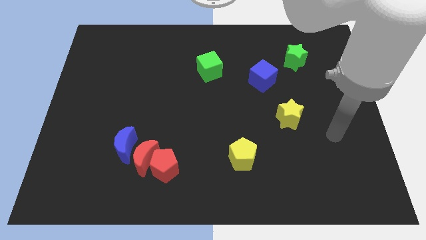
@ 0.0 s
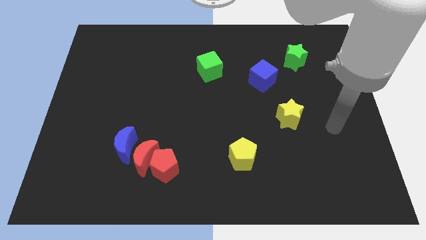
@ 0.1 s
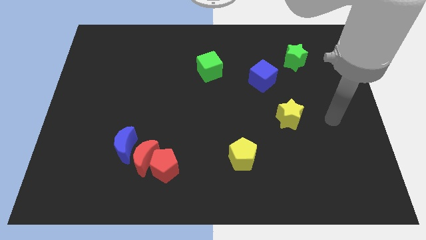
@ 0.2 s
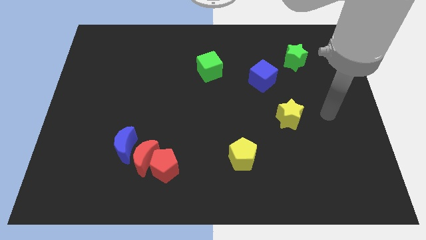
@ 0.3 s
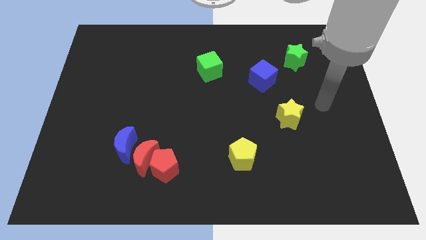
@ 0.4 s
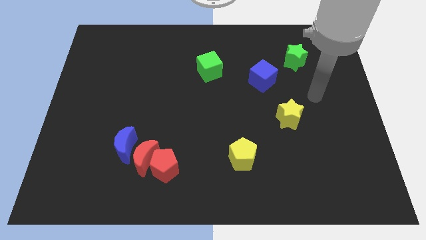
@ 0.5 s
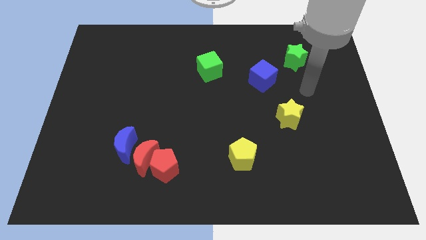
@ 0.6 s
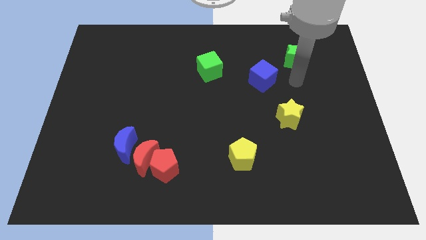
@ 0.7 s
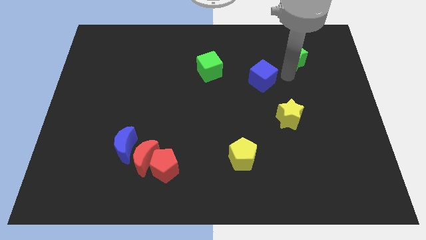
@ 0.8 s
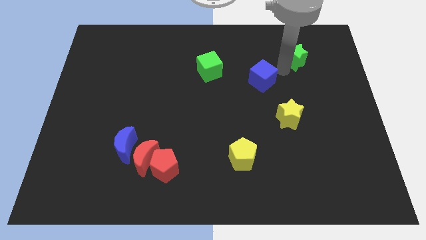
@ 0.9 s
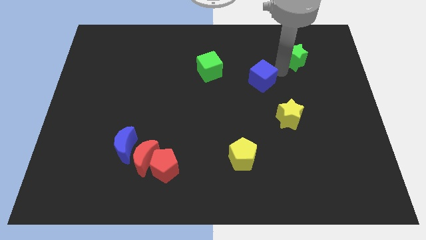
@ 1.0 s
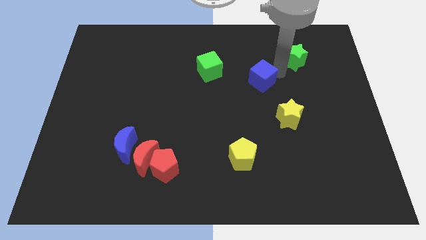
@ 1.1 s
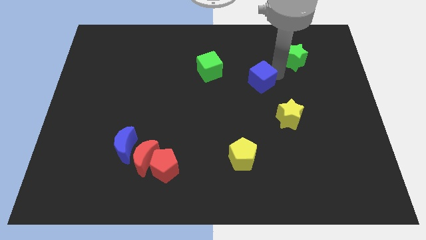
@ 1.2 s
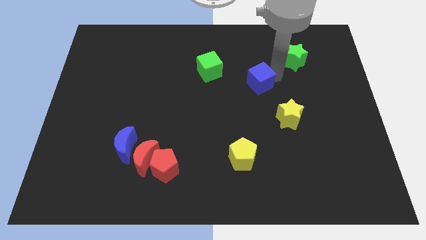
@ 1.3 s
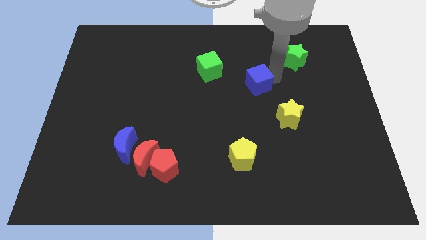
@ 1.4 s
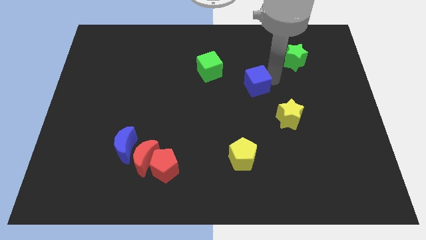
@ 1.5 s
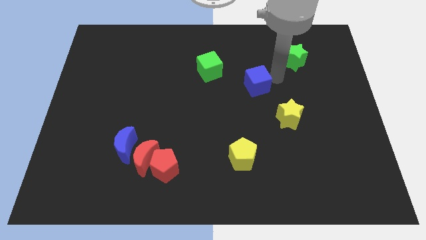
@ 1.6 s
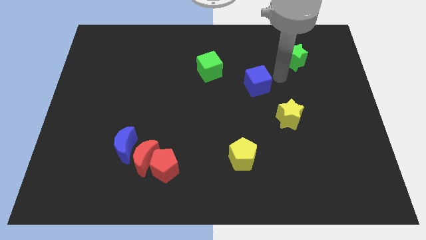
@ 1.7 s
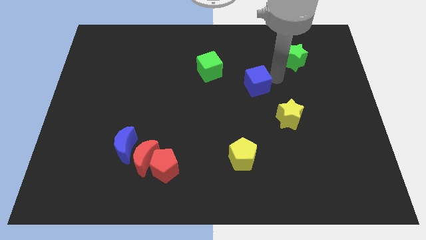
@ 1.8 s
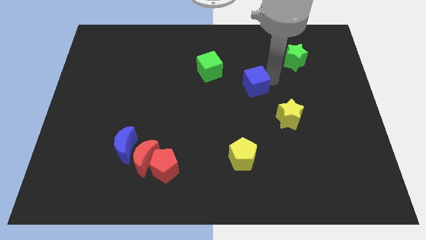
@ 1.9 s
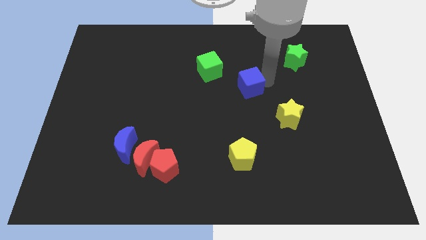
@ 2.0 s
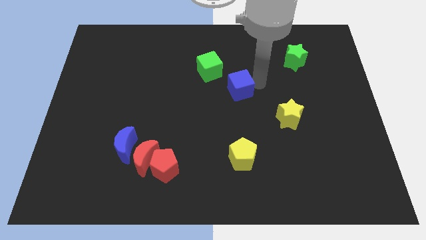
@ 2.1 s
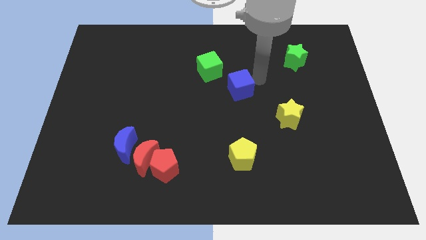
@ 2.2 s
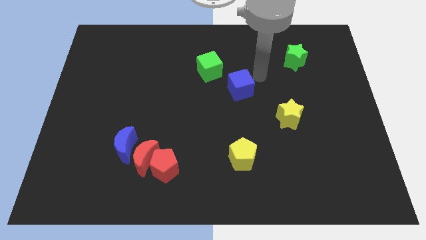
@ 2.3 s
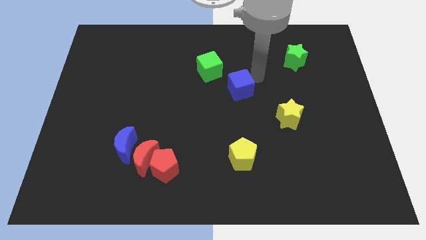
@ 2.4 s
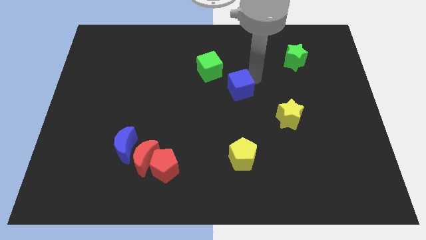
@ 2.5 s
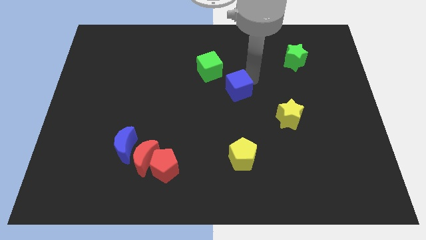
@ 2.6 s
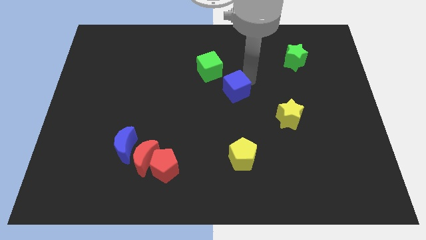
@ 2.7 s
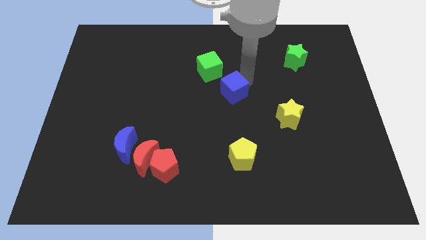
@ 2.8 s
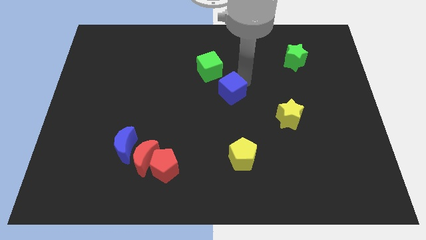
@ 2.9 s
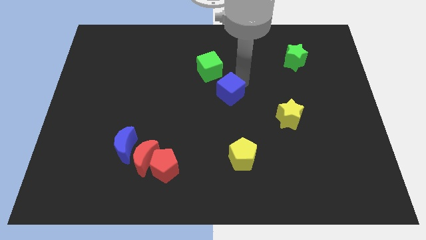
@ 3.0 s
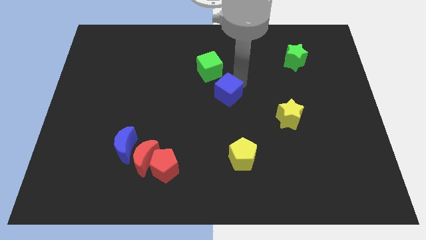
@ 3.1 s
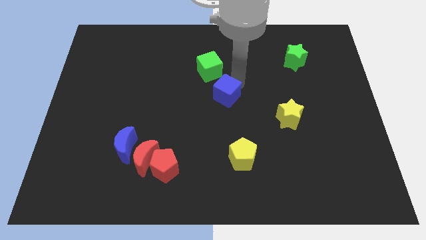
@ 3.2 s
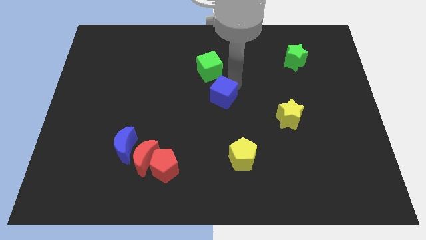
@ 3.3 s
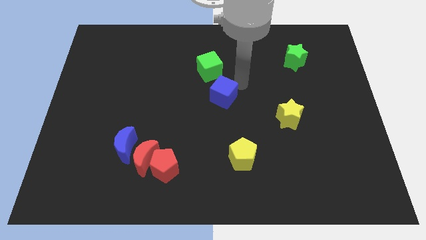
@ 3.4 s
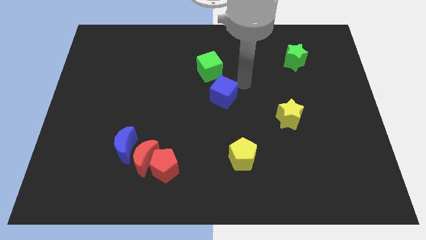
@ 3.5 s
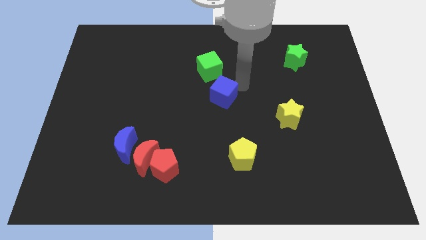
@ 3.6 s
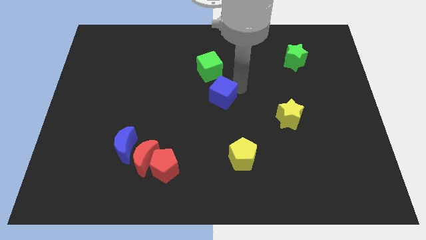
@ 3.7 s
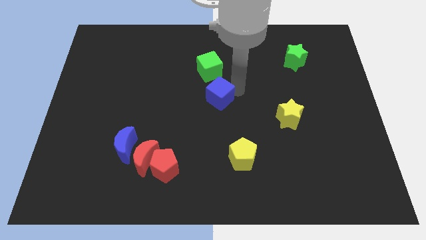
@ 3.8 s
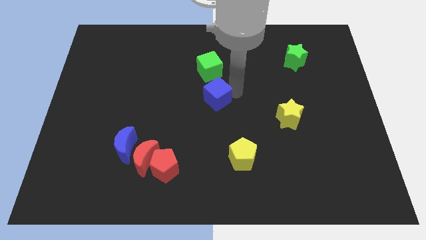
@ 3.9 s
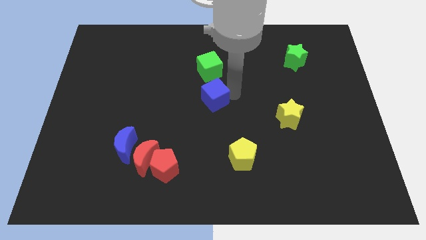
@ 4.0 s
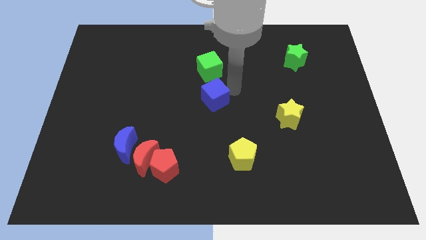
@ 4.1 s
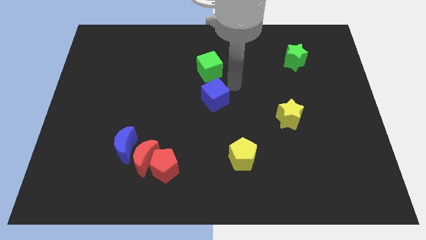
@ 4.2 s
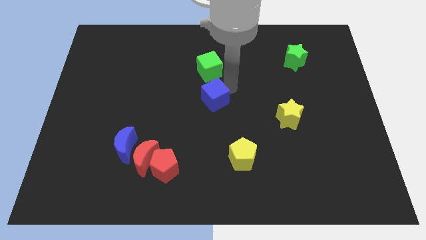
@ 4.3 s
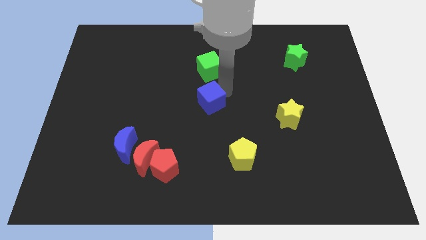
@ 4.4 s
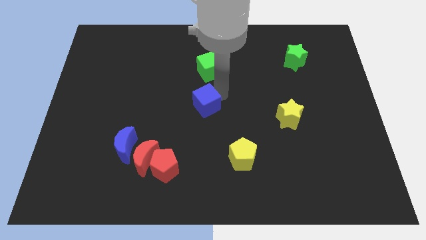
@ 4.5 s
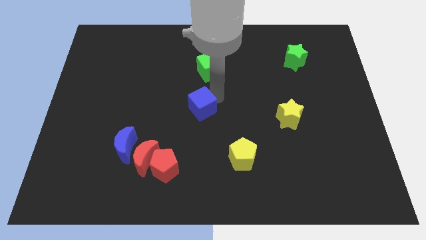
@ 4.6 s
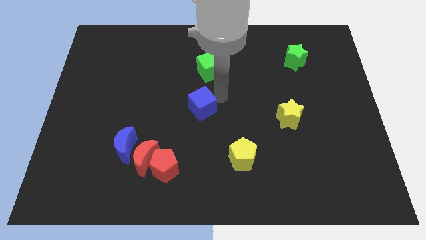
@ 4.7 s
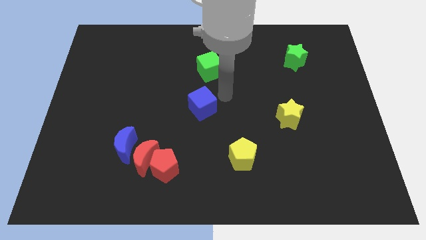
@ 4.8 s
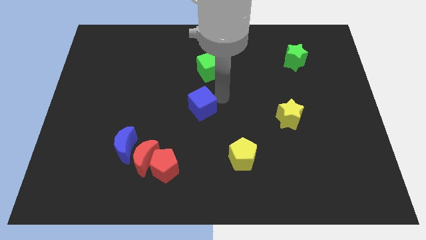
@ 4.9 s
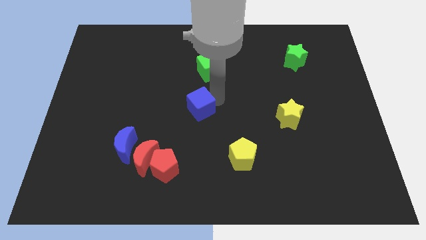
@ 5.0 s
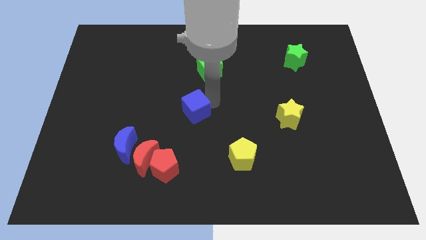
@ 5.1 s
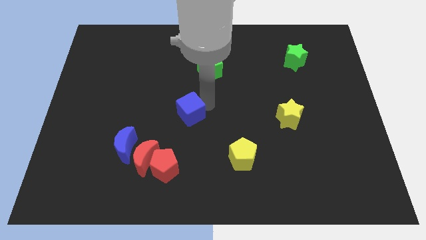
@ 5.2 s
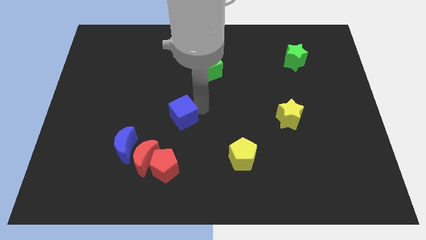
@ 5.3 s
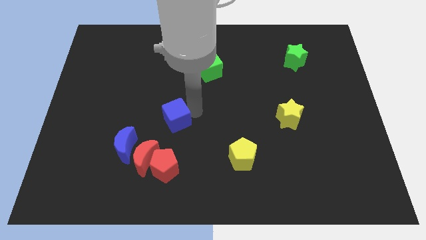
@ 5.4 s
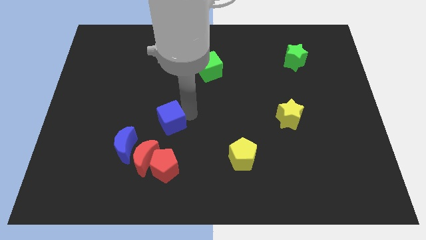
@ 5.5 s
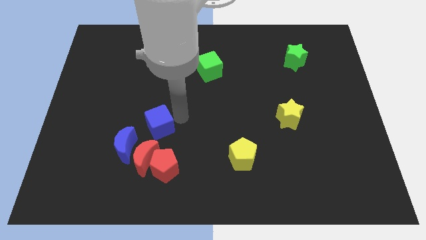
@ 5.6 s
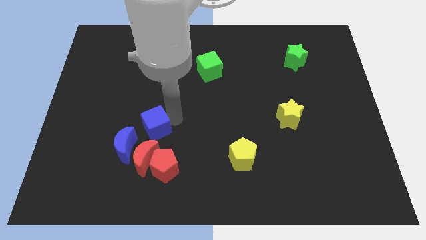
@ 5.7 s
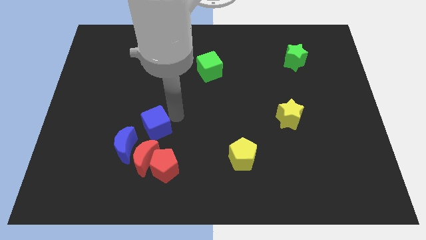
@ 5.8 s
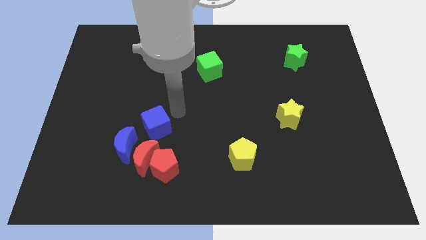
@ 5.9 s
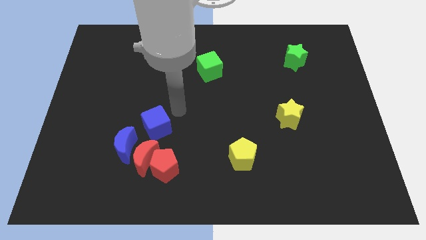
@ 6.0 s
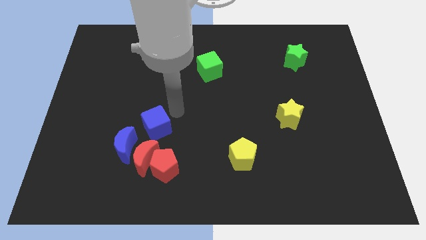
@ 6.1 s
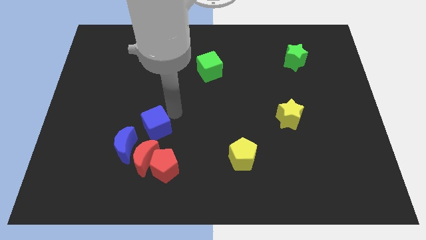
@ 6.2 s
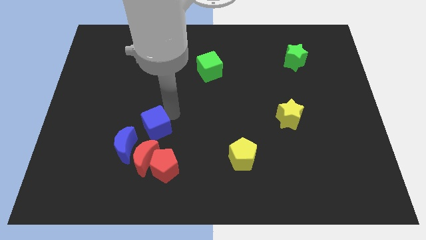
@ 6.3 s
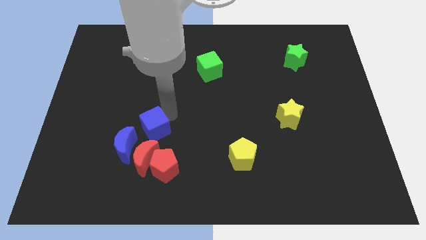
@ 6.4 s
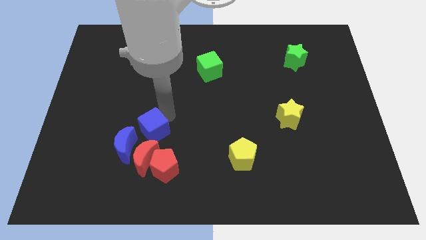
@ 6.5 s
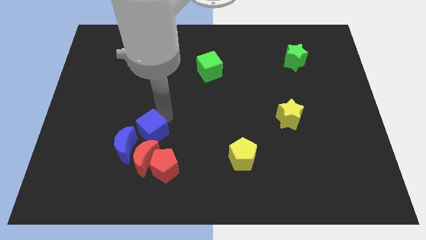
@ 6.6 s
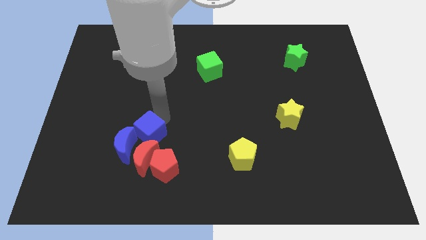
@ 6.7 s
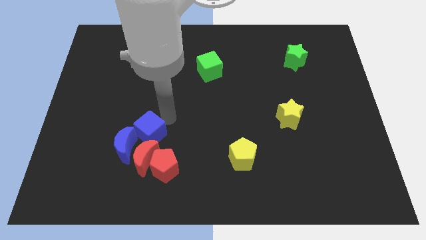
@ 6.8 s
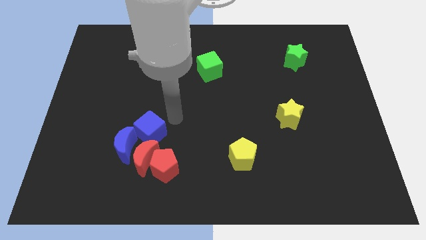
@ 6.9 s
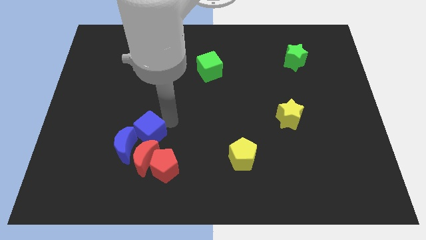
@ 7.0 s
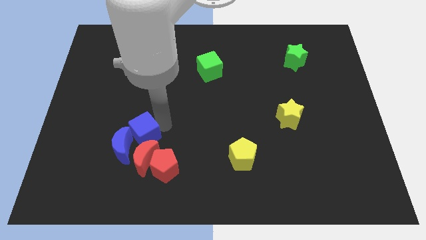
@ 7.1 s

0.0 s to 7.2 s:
push the blue cube towards the blue moon
